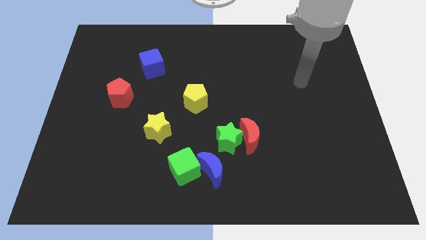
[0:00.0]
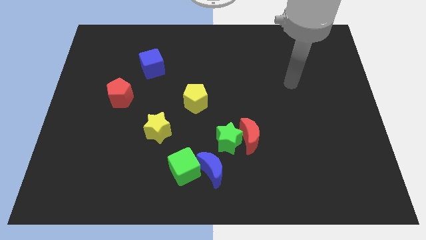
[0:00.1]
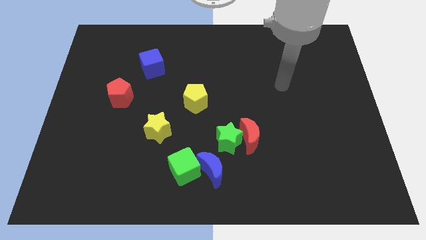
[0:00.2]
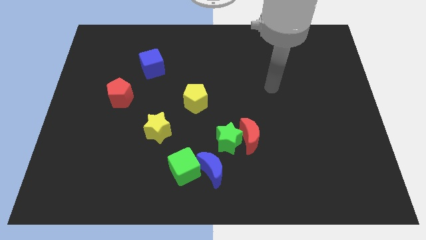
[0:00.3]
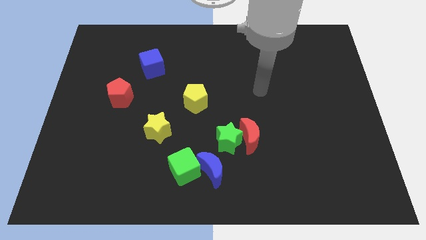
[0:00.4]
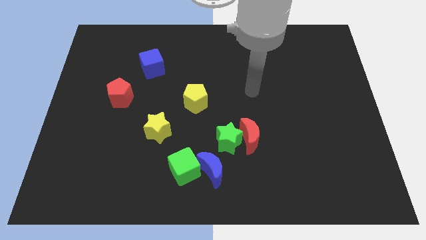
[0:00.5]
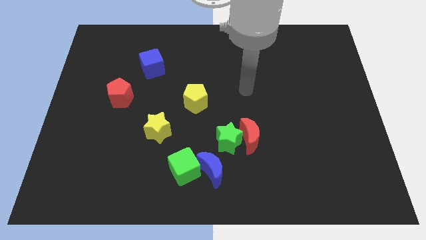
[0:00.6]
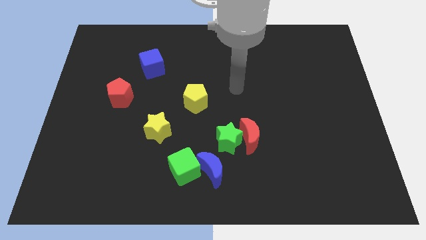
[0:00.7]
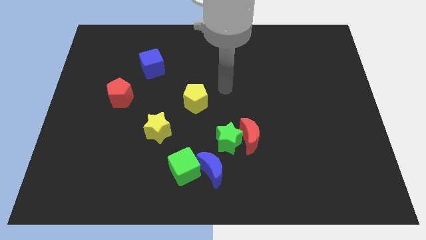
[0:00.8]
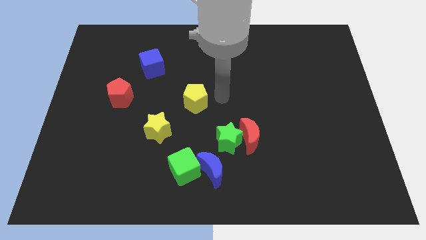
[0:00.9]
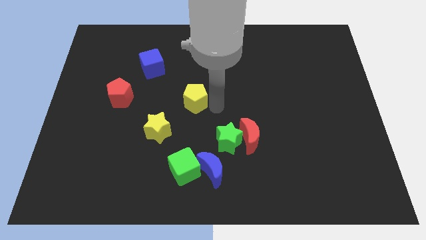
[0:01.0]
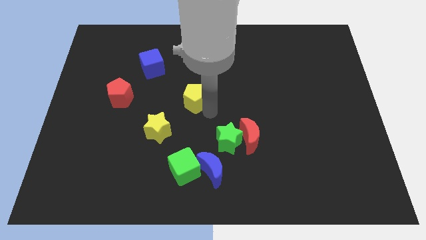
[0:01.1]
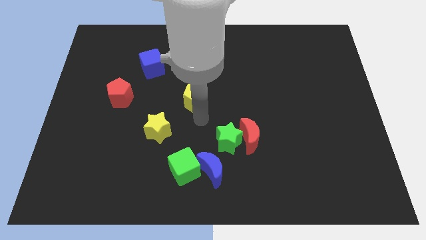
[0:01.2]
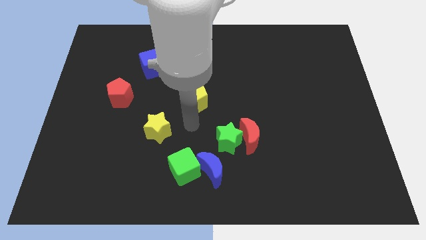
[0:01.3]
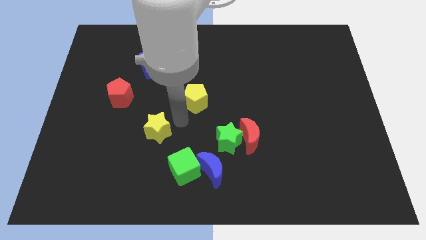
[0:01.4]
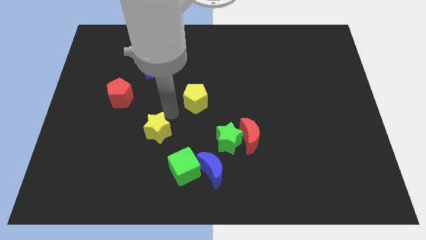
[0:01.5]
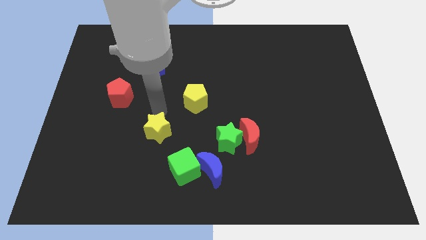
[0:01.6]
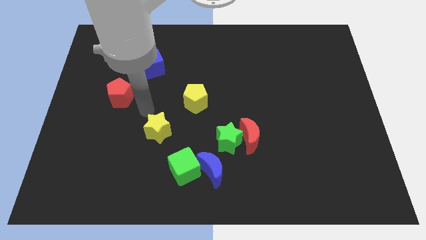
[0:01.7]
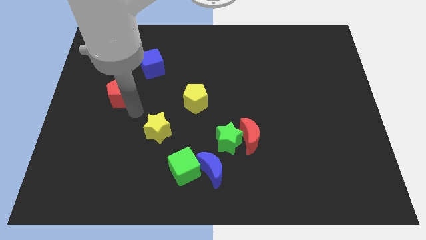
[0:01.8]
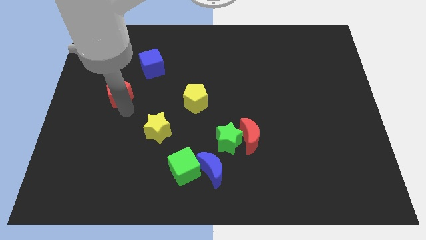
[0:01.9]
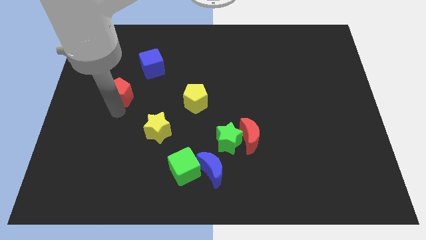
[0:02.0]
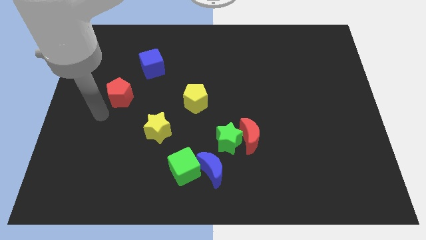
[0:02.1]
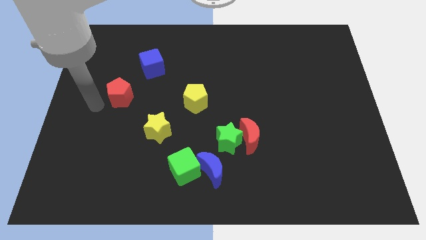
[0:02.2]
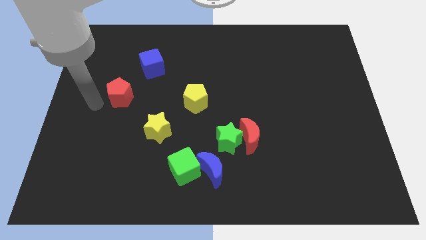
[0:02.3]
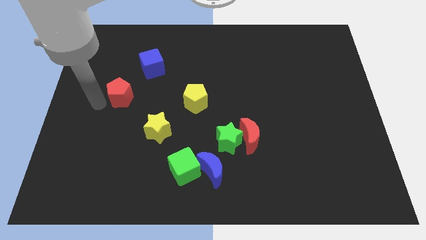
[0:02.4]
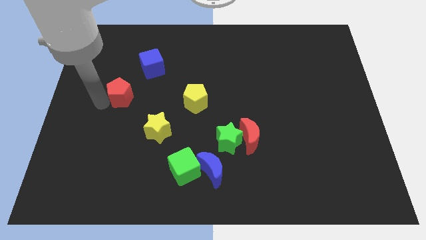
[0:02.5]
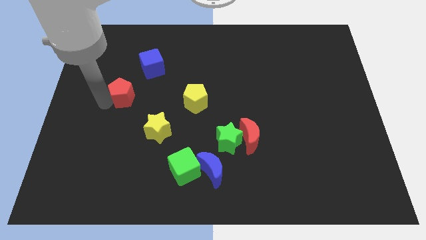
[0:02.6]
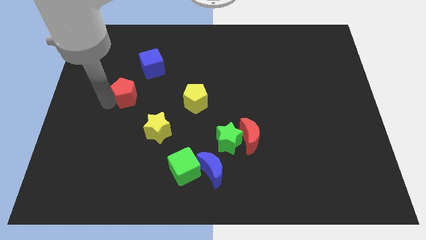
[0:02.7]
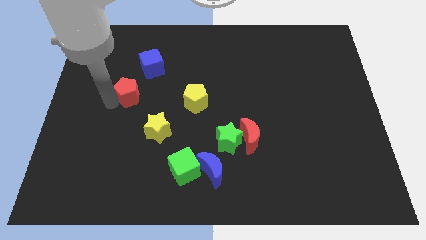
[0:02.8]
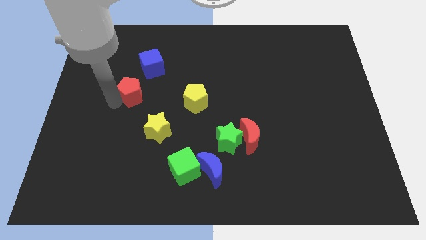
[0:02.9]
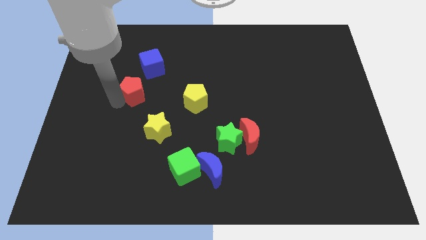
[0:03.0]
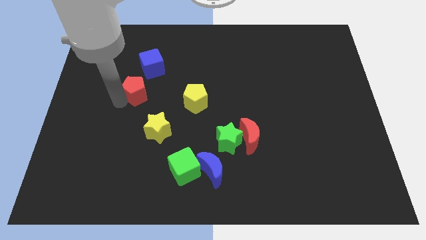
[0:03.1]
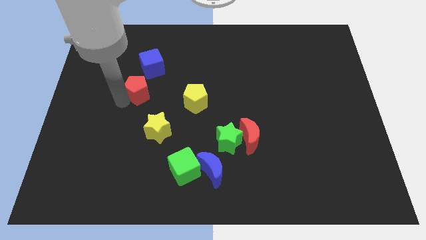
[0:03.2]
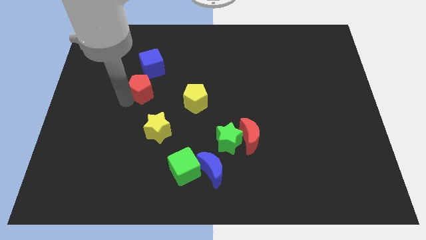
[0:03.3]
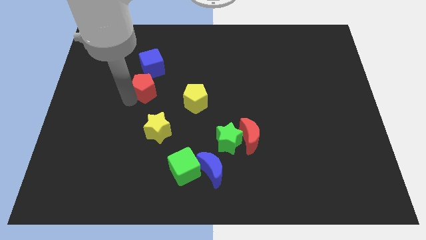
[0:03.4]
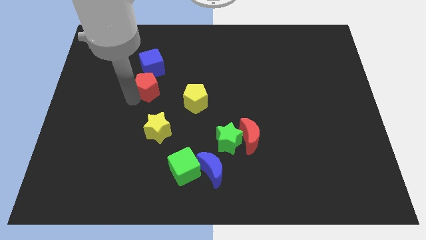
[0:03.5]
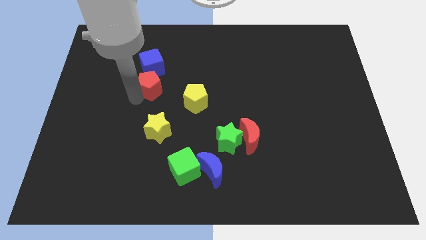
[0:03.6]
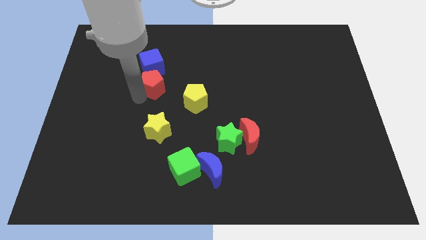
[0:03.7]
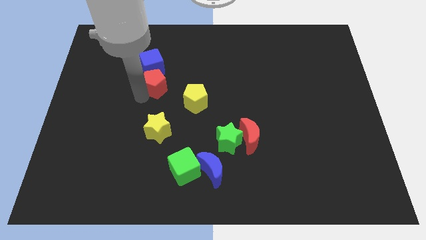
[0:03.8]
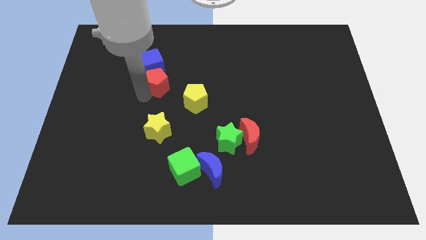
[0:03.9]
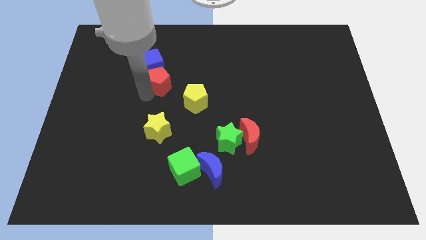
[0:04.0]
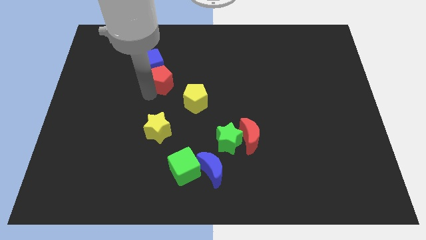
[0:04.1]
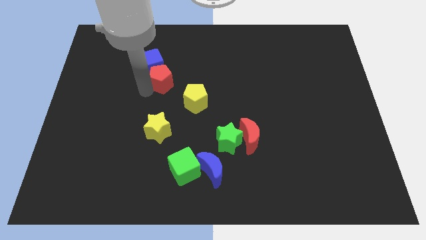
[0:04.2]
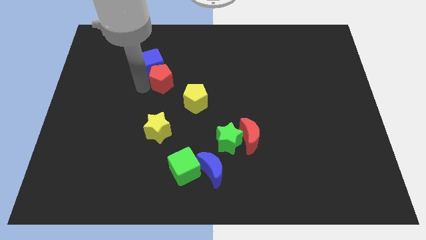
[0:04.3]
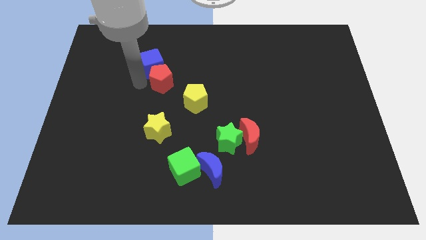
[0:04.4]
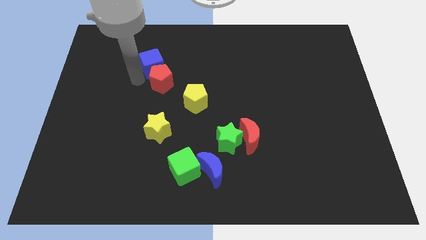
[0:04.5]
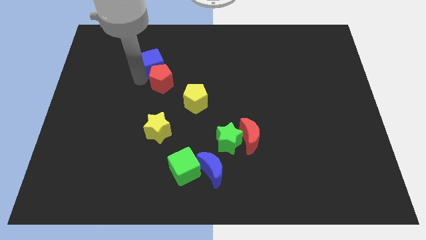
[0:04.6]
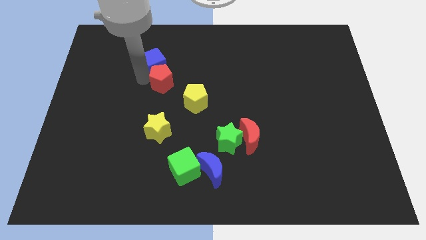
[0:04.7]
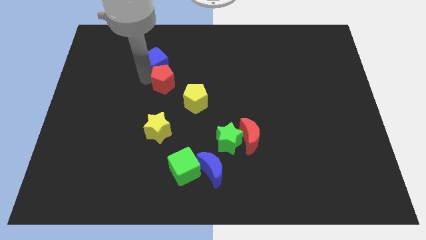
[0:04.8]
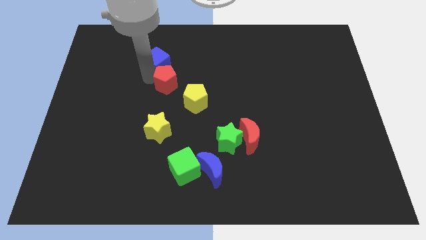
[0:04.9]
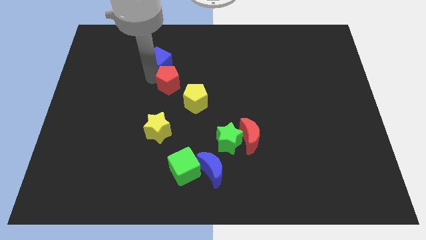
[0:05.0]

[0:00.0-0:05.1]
put the red pentagon to the middle of the board

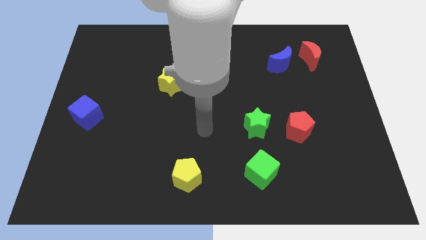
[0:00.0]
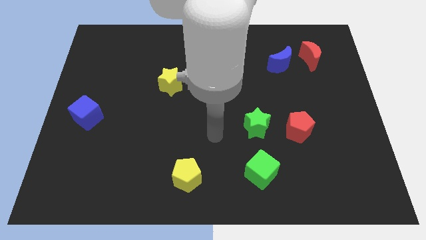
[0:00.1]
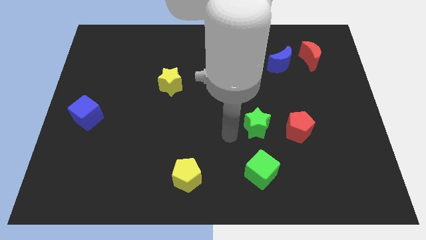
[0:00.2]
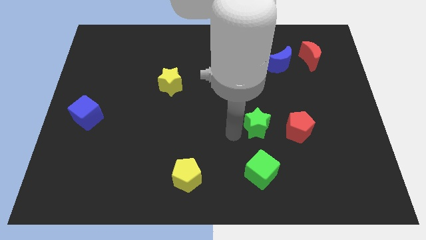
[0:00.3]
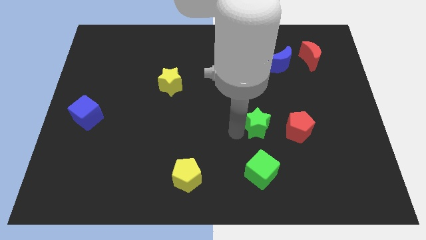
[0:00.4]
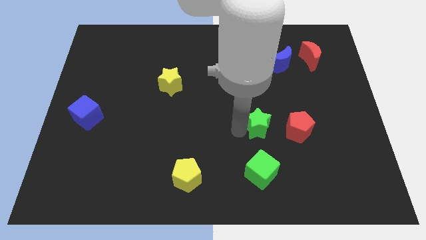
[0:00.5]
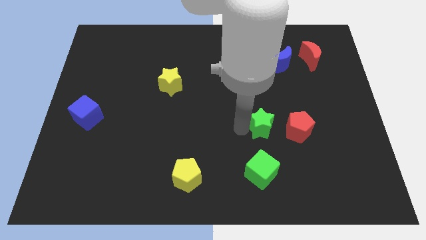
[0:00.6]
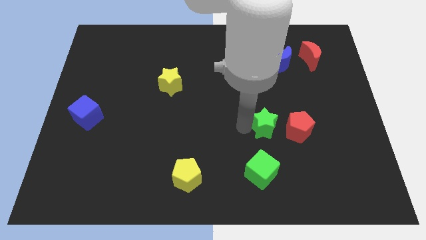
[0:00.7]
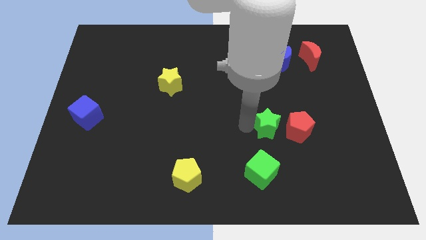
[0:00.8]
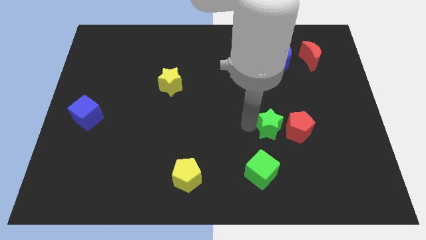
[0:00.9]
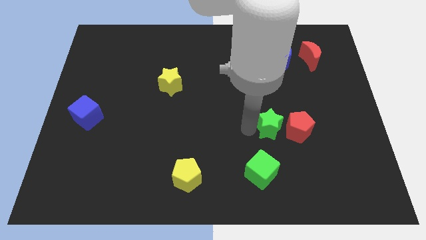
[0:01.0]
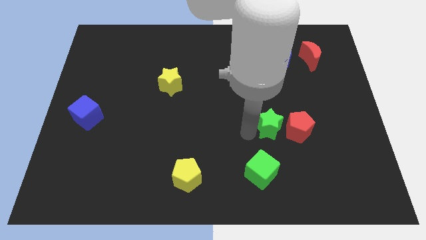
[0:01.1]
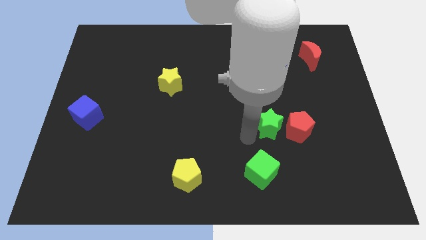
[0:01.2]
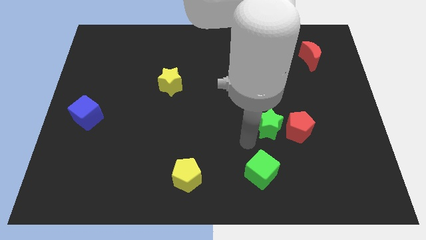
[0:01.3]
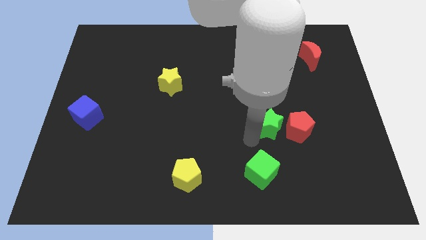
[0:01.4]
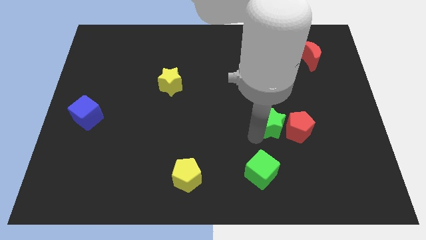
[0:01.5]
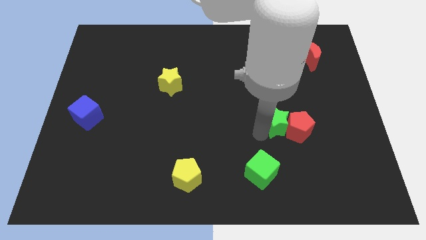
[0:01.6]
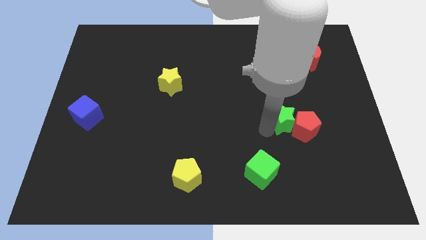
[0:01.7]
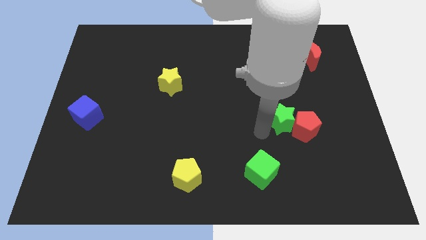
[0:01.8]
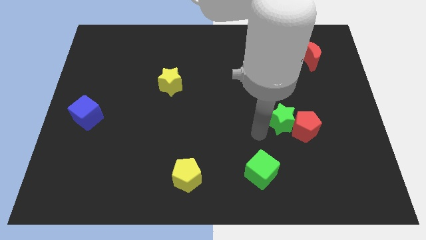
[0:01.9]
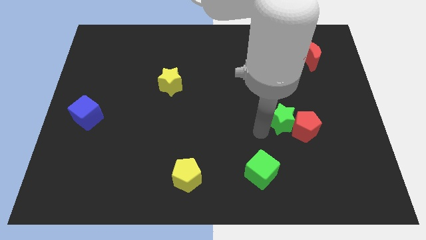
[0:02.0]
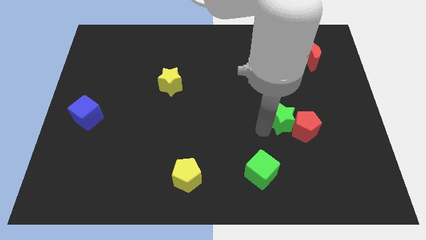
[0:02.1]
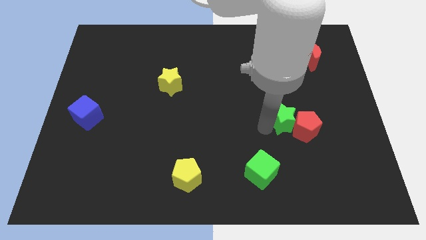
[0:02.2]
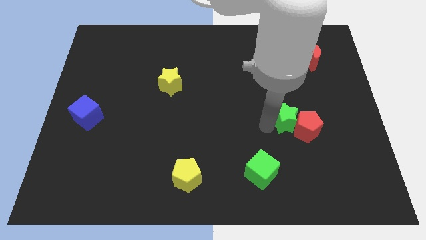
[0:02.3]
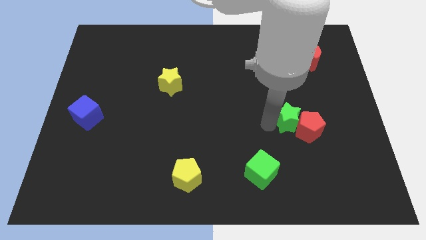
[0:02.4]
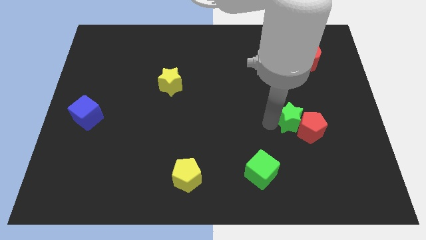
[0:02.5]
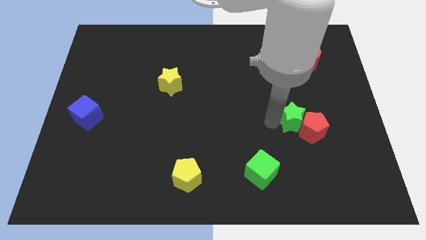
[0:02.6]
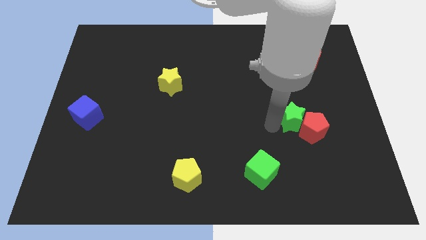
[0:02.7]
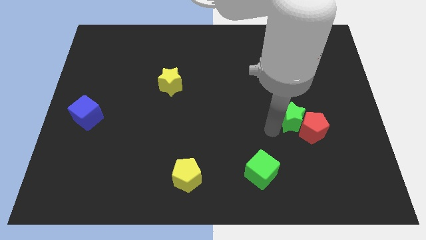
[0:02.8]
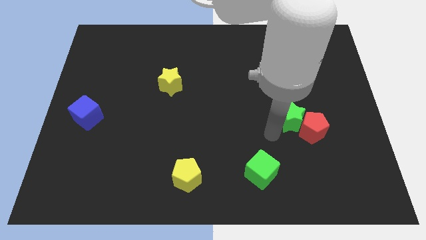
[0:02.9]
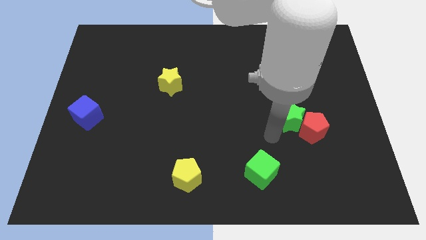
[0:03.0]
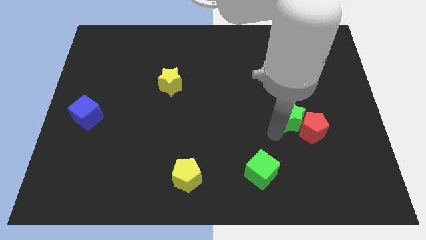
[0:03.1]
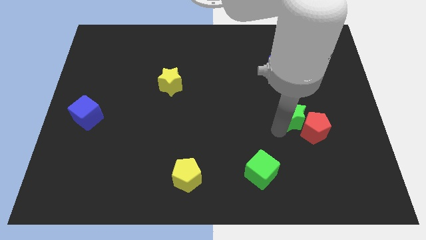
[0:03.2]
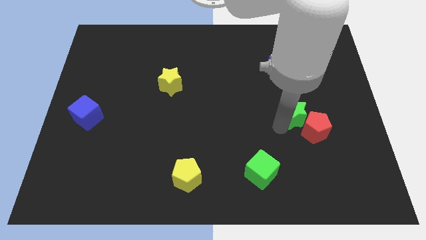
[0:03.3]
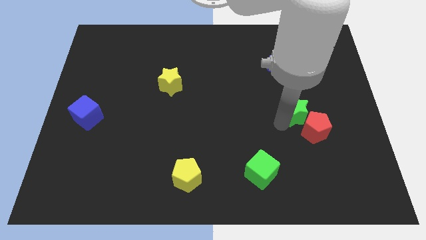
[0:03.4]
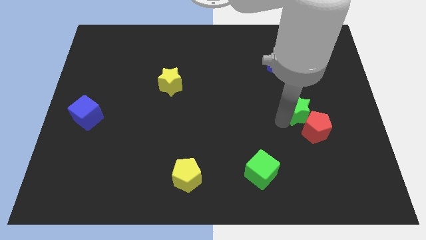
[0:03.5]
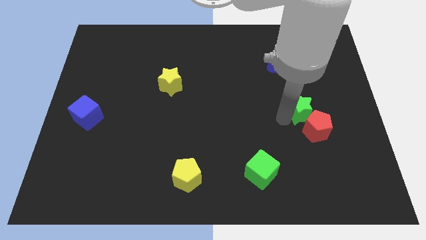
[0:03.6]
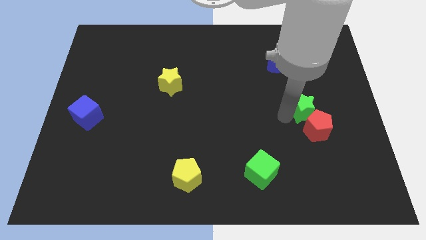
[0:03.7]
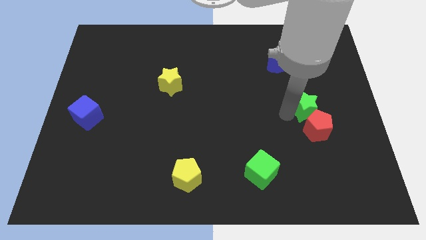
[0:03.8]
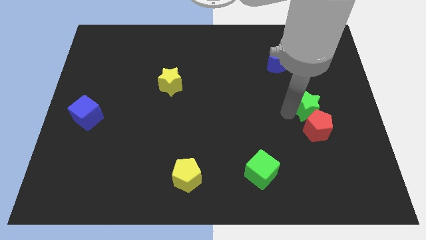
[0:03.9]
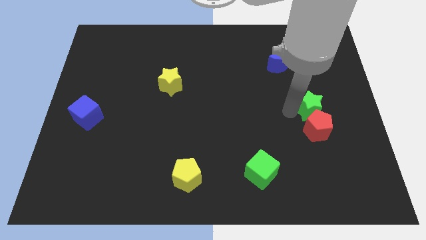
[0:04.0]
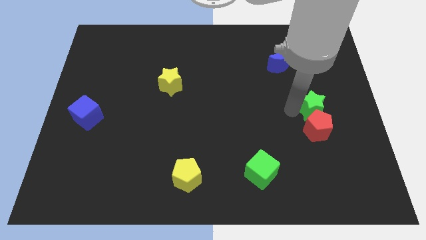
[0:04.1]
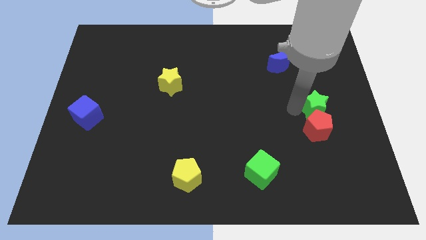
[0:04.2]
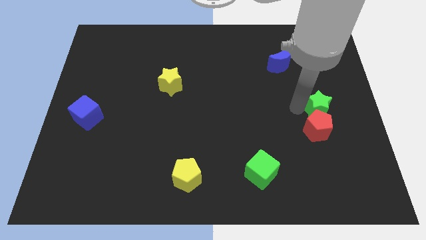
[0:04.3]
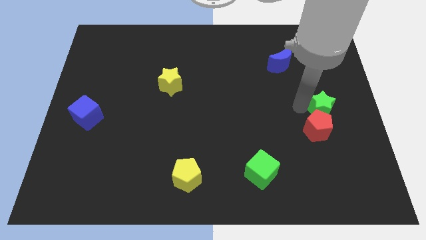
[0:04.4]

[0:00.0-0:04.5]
slide the green star to the right side
